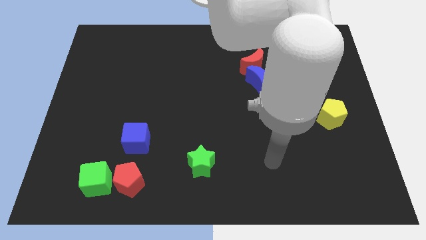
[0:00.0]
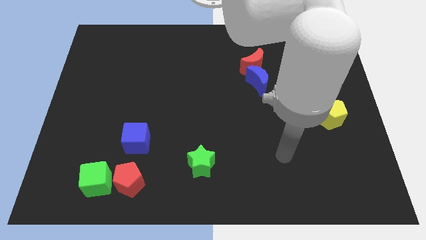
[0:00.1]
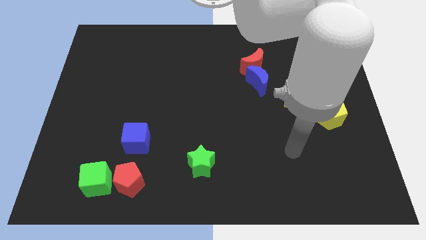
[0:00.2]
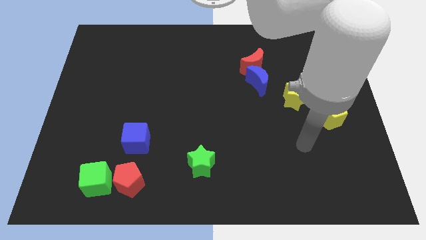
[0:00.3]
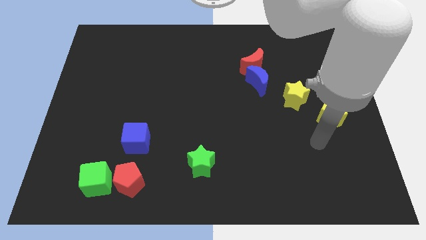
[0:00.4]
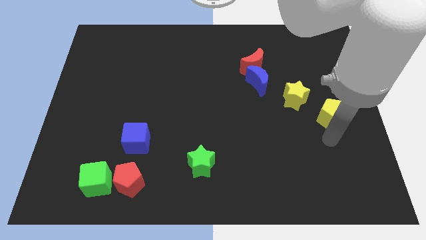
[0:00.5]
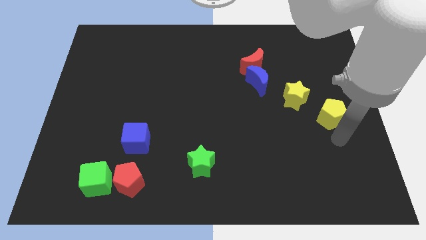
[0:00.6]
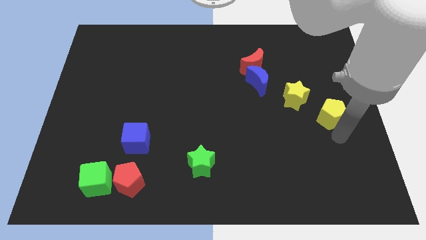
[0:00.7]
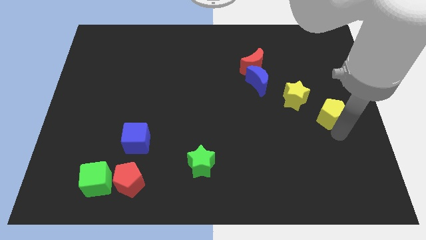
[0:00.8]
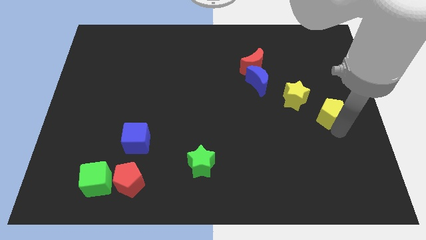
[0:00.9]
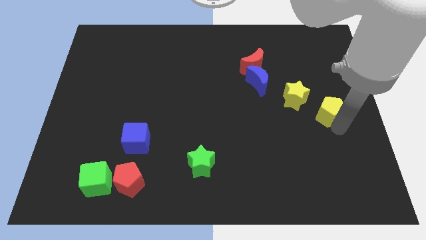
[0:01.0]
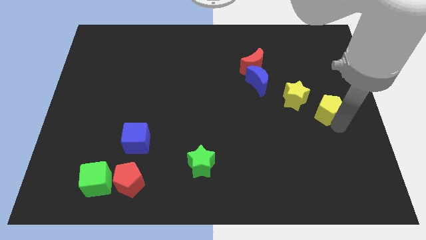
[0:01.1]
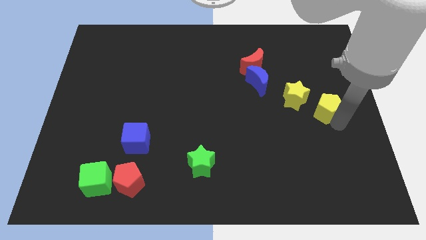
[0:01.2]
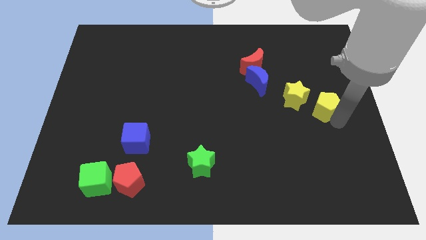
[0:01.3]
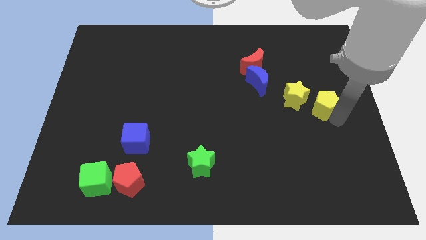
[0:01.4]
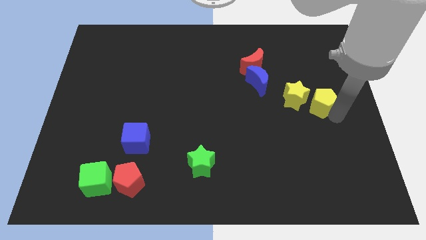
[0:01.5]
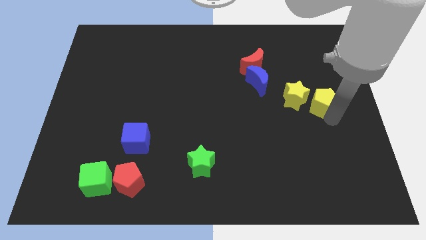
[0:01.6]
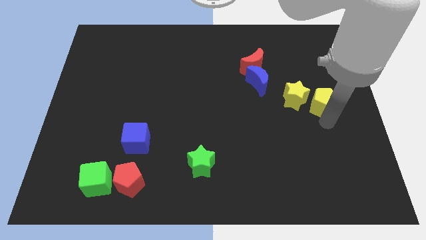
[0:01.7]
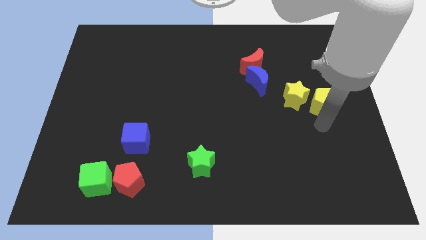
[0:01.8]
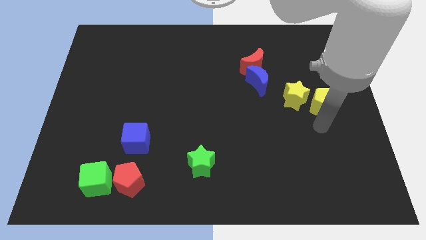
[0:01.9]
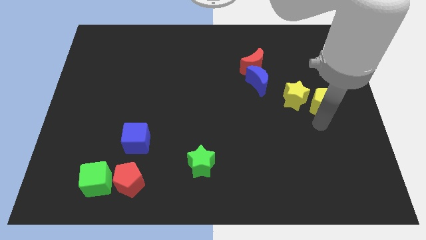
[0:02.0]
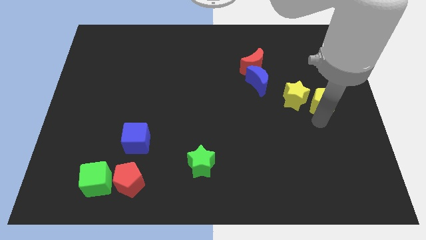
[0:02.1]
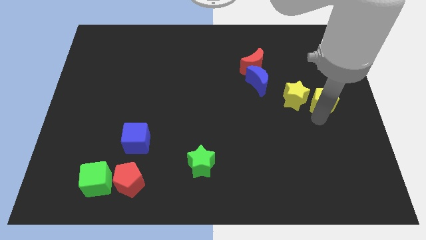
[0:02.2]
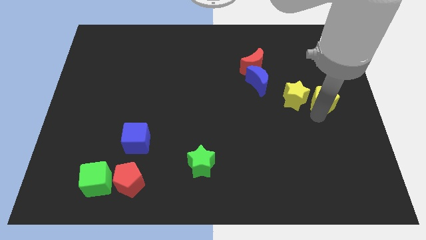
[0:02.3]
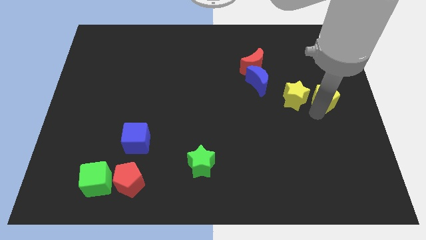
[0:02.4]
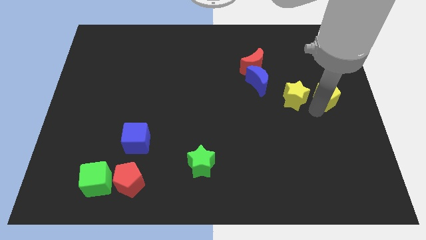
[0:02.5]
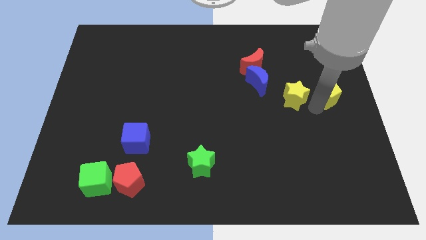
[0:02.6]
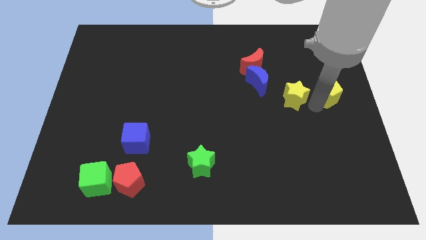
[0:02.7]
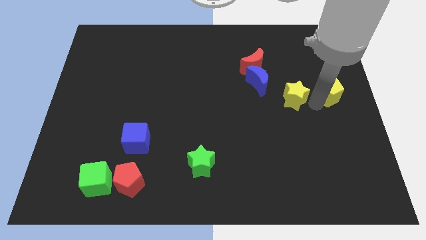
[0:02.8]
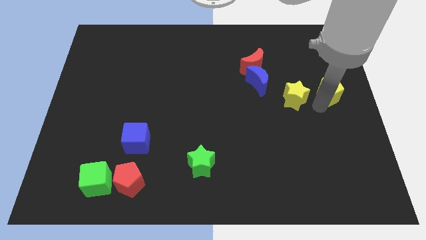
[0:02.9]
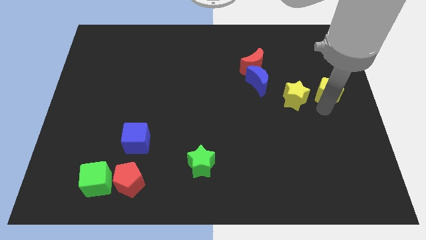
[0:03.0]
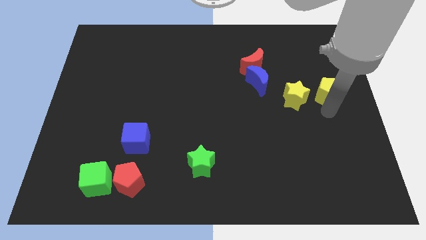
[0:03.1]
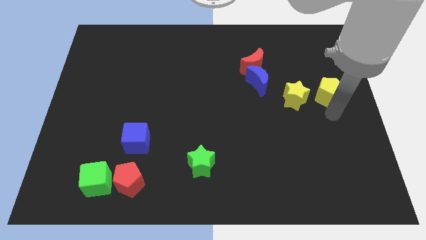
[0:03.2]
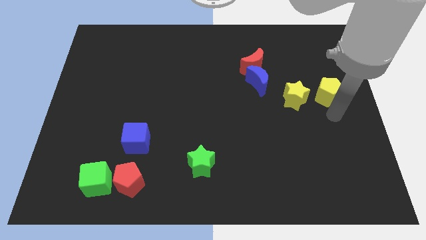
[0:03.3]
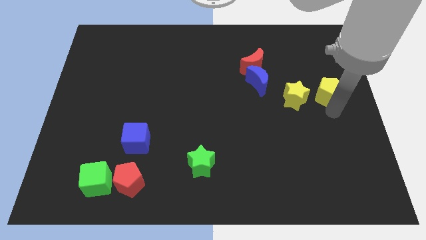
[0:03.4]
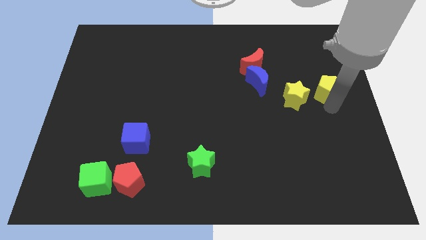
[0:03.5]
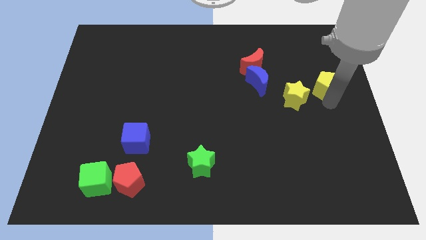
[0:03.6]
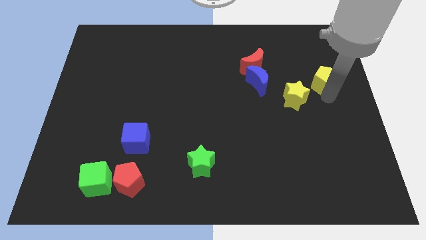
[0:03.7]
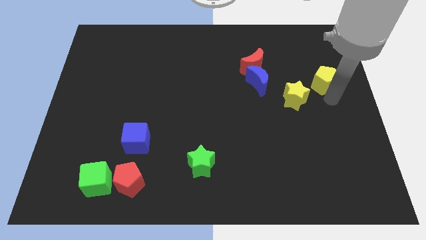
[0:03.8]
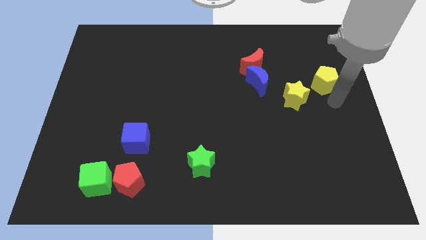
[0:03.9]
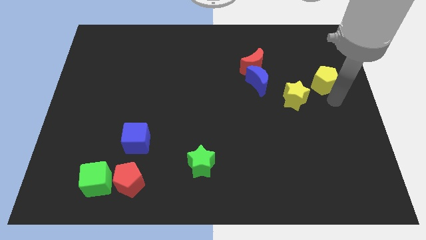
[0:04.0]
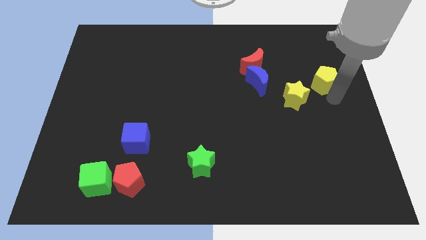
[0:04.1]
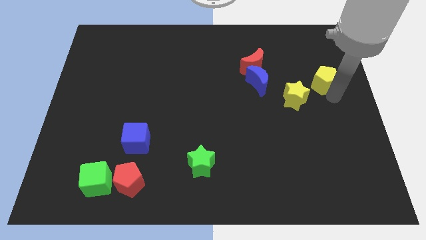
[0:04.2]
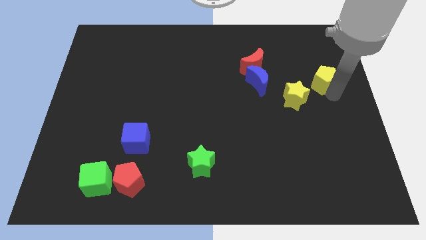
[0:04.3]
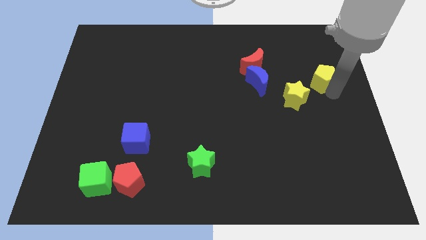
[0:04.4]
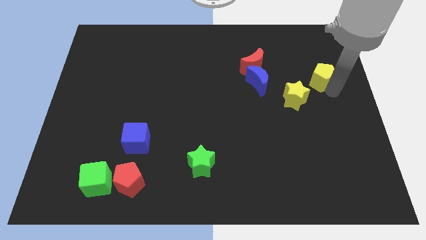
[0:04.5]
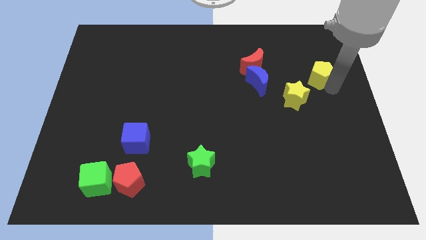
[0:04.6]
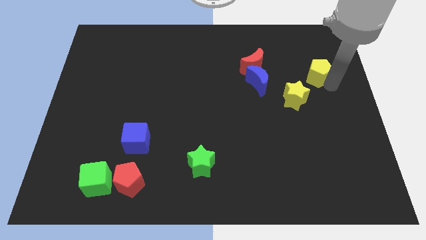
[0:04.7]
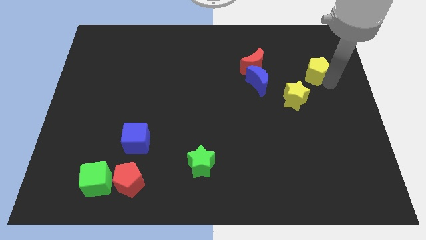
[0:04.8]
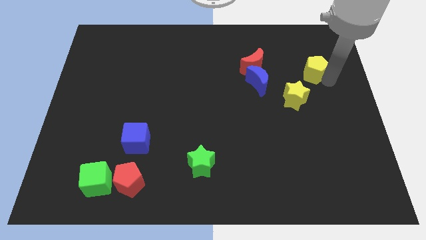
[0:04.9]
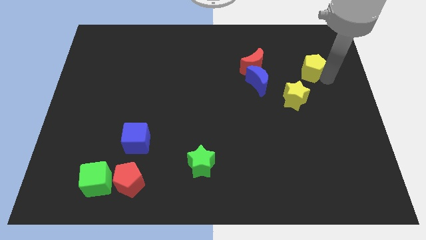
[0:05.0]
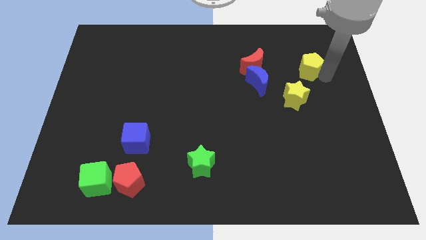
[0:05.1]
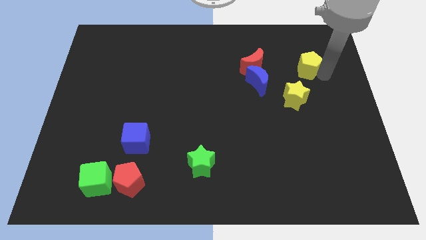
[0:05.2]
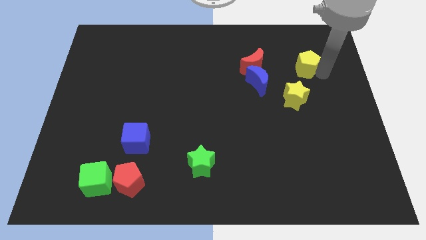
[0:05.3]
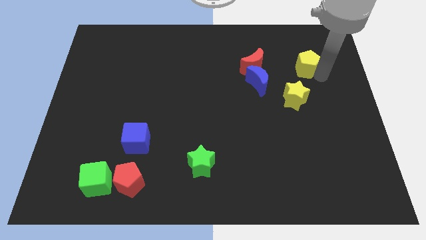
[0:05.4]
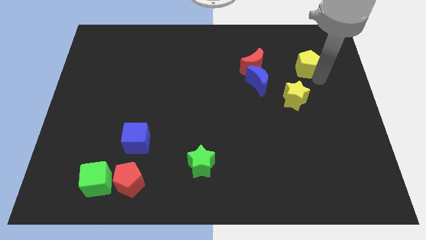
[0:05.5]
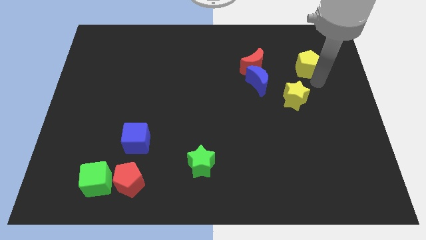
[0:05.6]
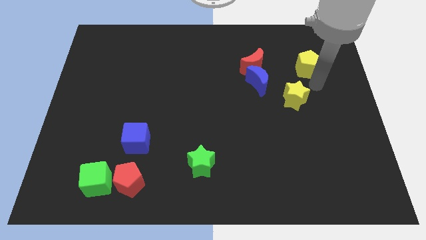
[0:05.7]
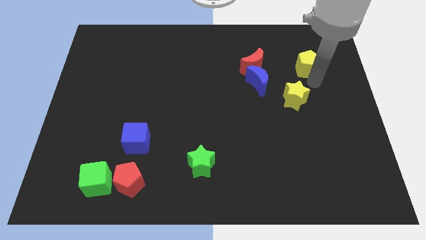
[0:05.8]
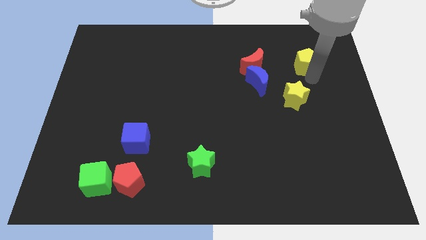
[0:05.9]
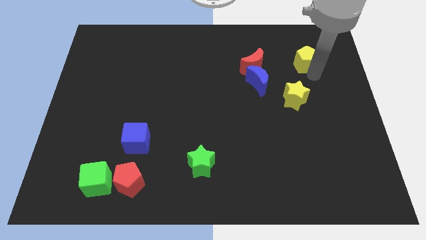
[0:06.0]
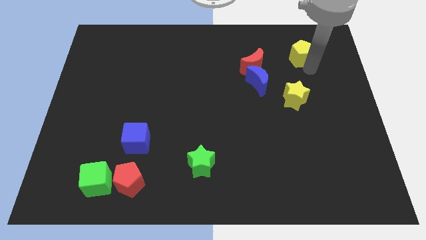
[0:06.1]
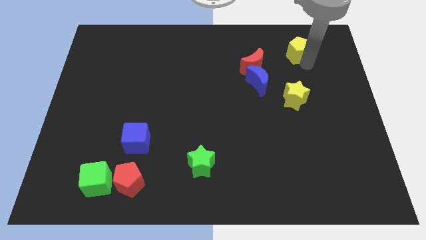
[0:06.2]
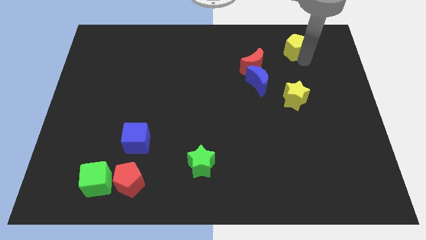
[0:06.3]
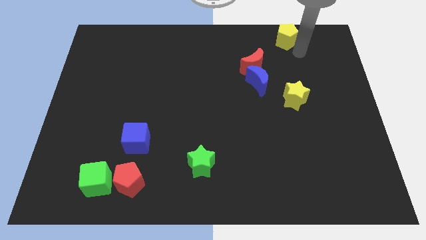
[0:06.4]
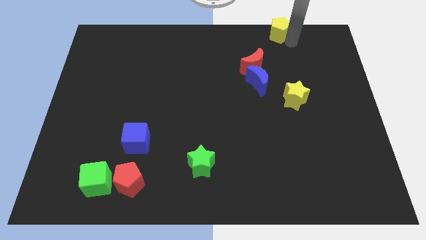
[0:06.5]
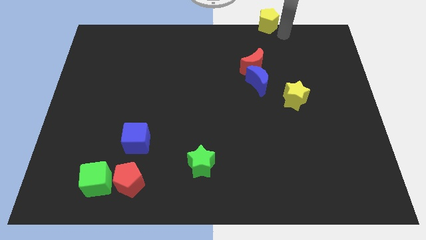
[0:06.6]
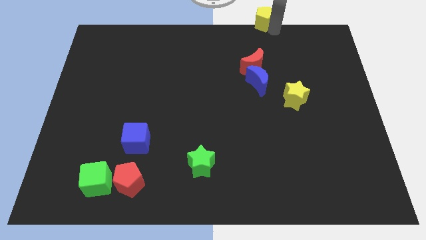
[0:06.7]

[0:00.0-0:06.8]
move the yellow pentagon to the top
